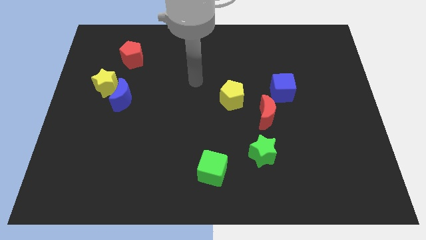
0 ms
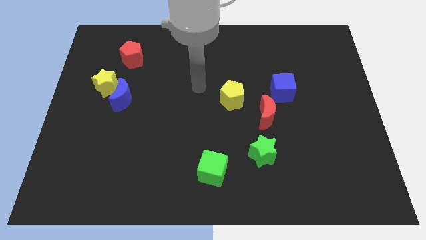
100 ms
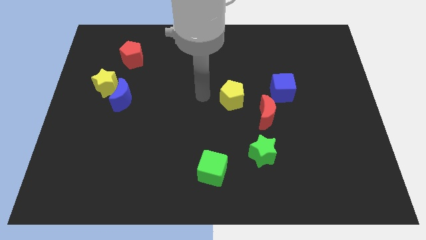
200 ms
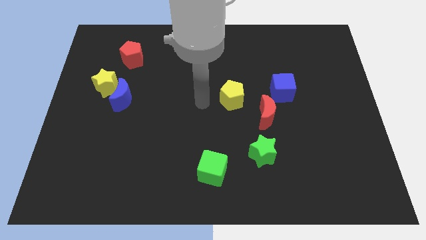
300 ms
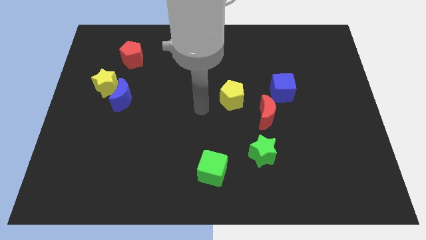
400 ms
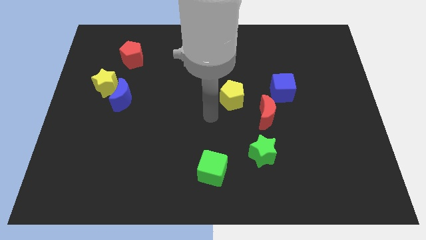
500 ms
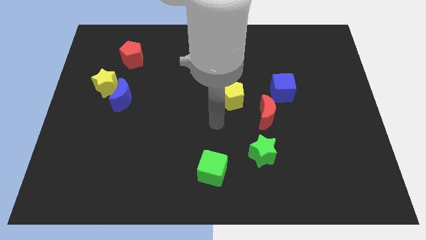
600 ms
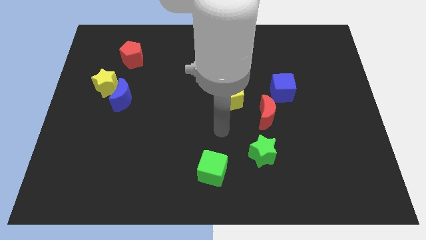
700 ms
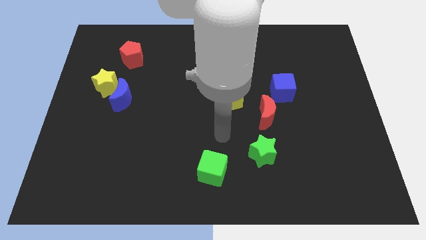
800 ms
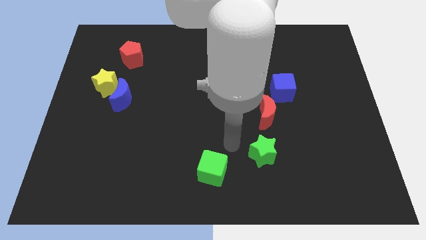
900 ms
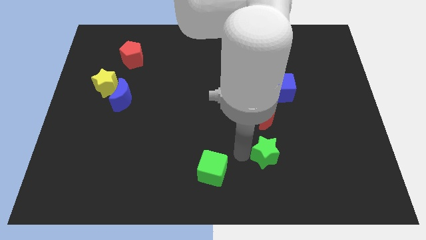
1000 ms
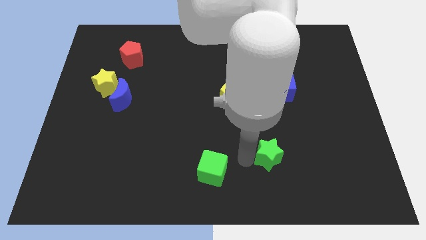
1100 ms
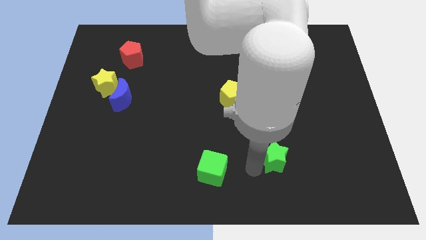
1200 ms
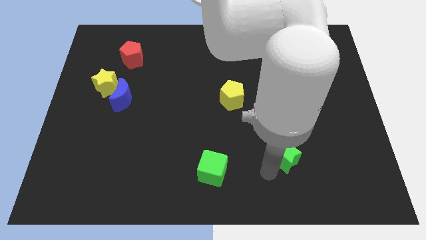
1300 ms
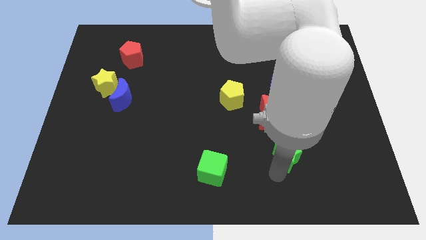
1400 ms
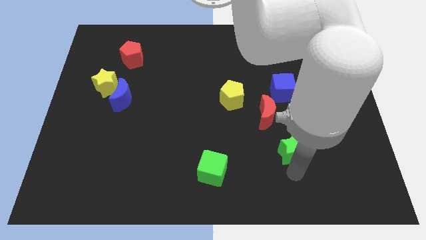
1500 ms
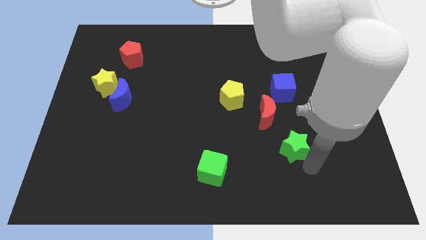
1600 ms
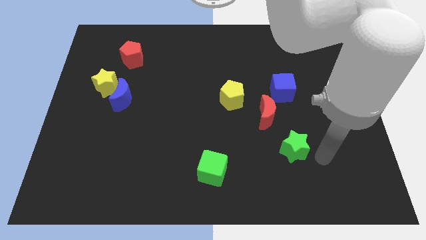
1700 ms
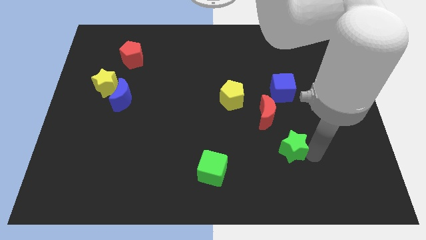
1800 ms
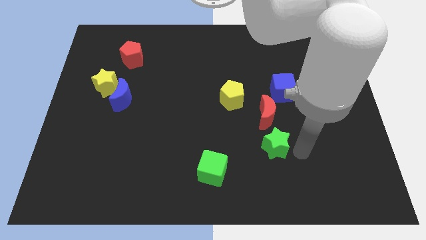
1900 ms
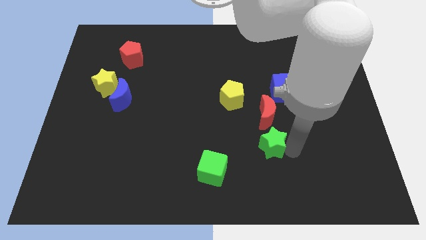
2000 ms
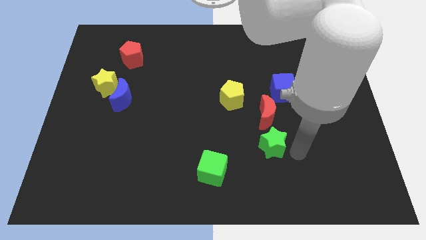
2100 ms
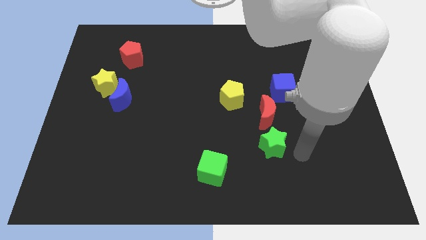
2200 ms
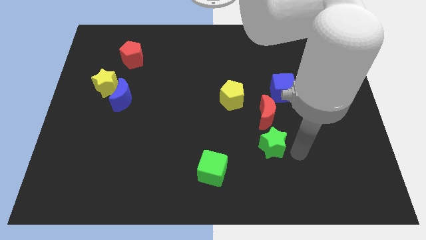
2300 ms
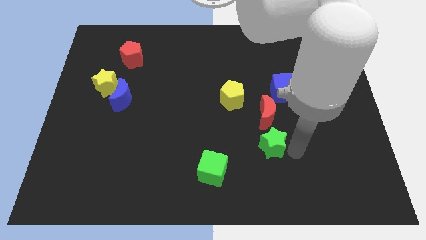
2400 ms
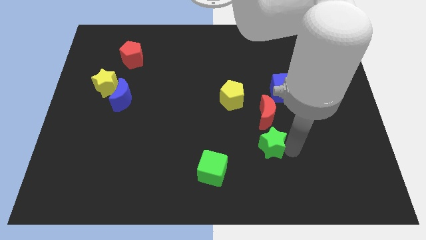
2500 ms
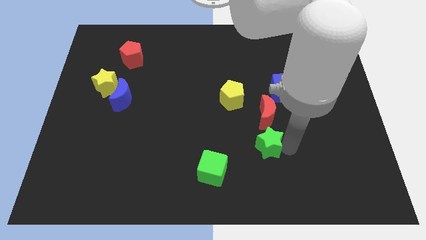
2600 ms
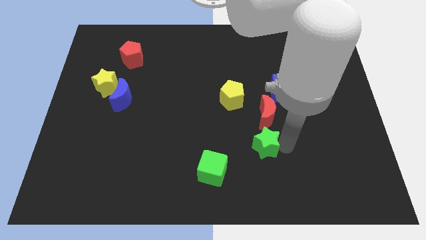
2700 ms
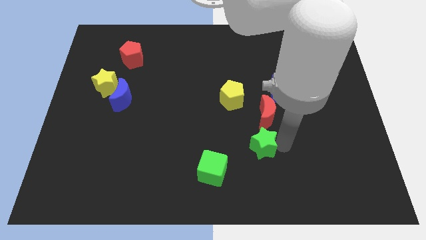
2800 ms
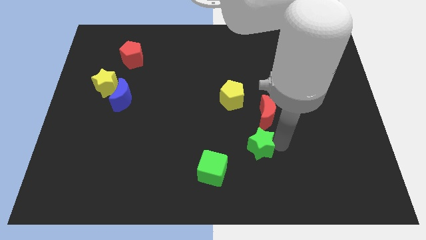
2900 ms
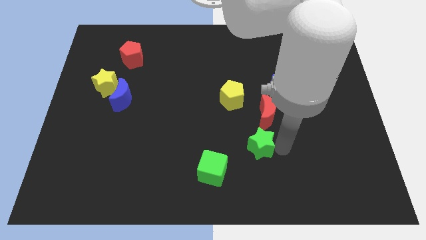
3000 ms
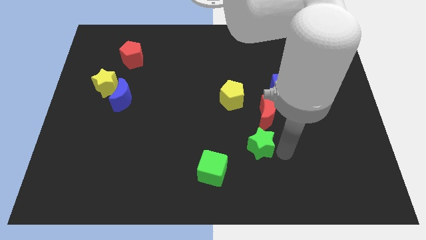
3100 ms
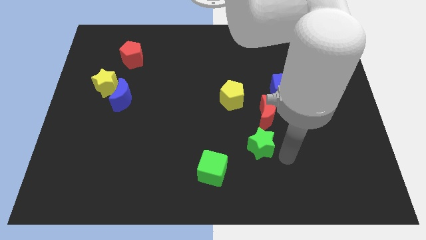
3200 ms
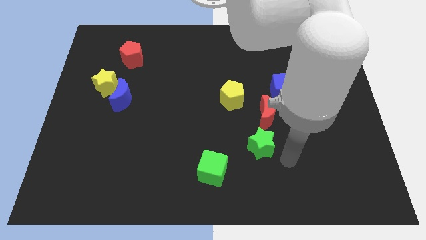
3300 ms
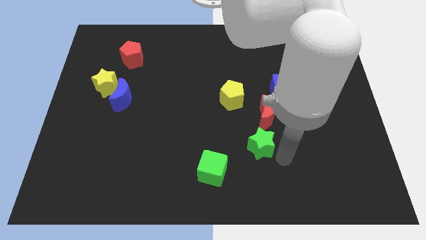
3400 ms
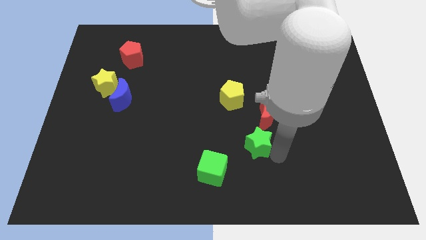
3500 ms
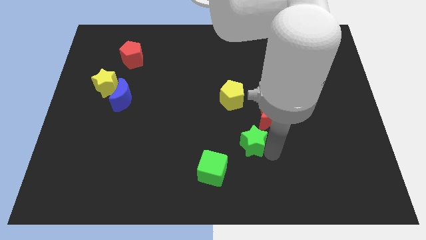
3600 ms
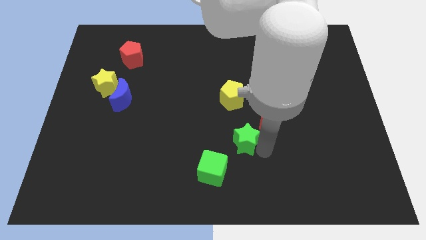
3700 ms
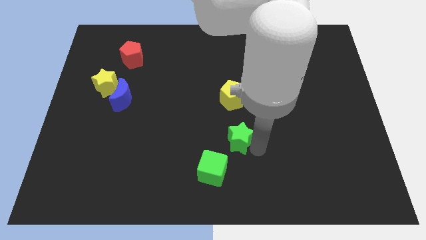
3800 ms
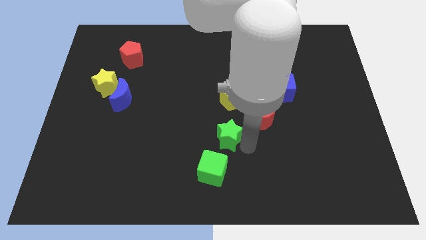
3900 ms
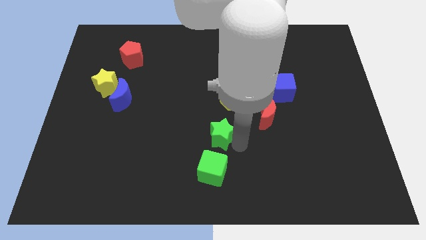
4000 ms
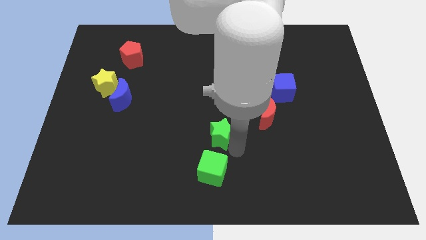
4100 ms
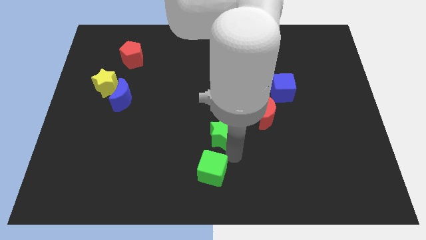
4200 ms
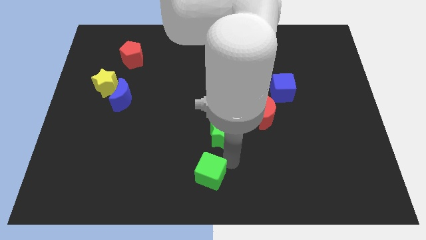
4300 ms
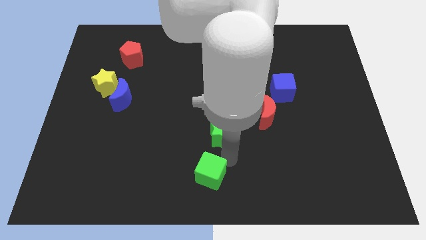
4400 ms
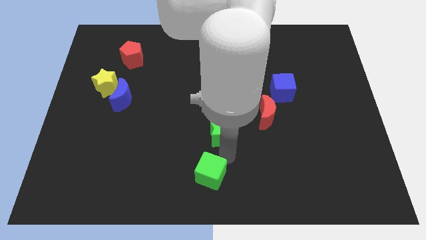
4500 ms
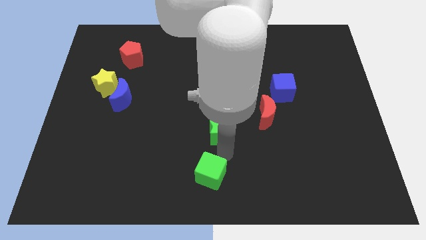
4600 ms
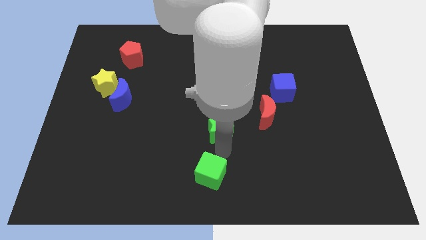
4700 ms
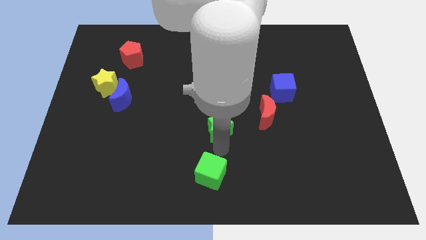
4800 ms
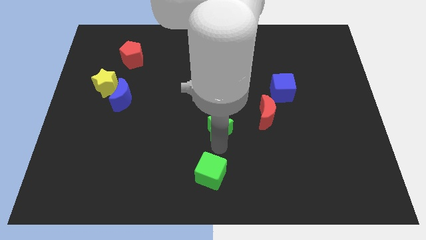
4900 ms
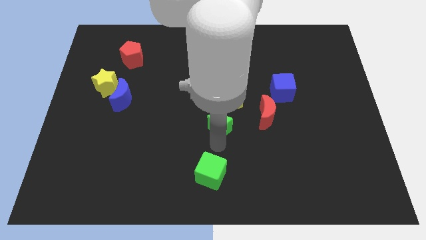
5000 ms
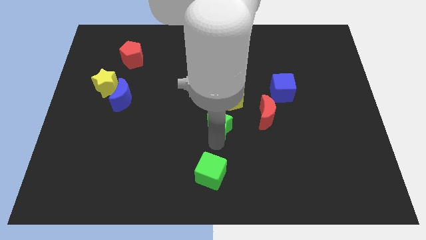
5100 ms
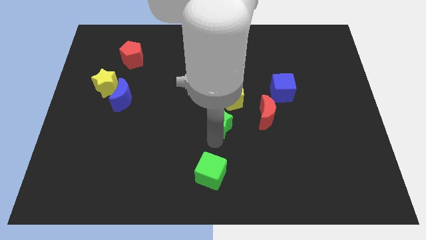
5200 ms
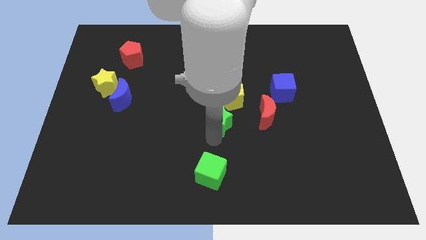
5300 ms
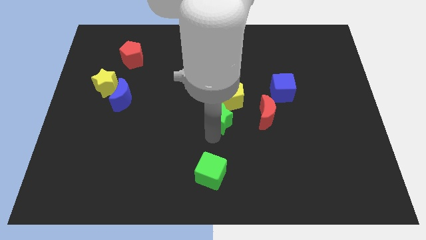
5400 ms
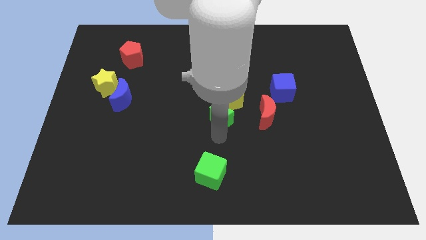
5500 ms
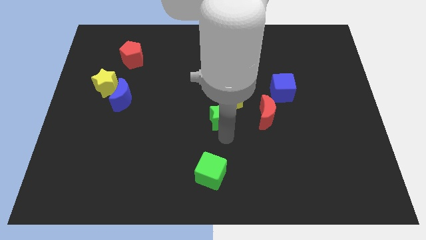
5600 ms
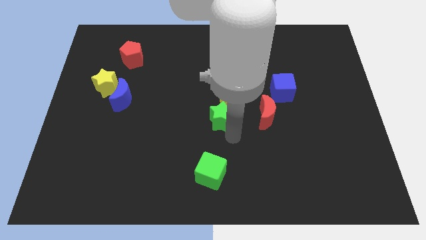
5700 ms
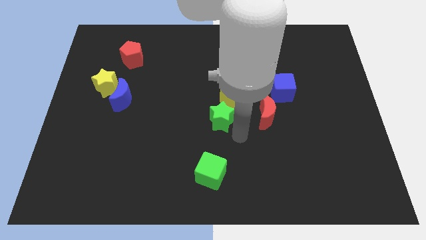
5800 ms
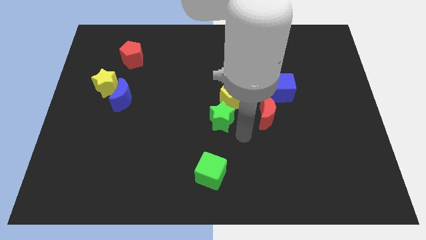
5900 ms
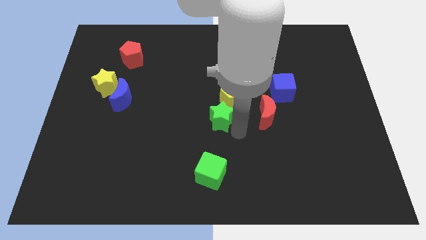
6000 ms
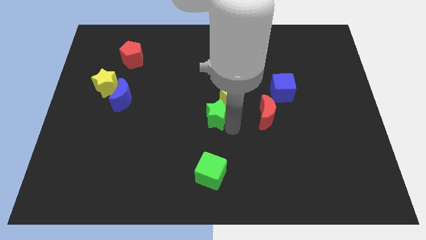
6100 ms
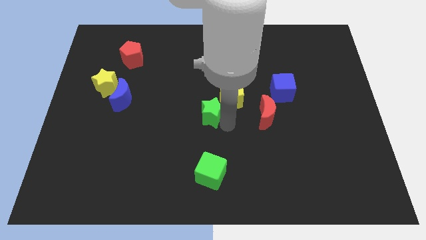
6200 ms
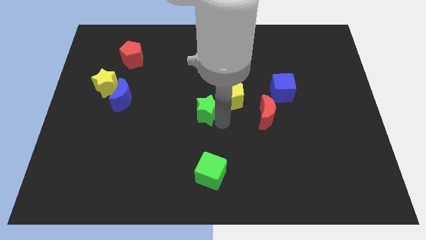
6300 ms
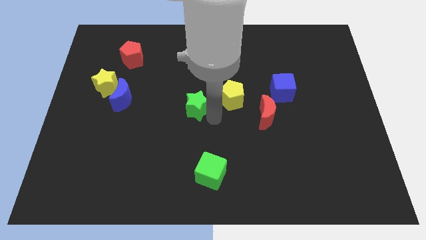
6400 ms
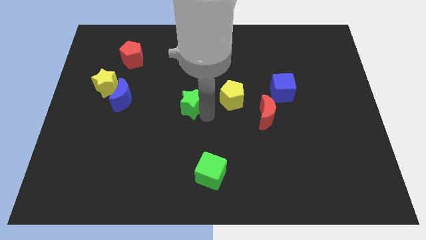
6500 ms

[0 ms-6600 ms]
slide the green star upwards and left diagonally

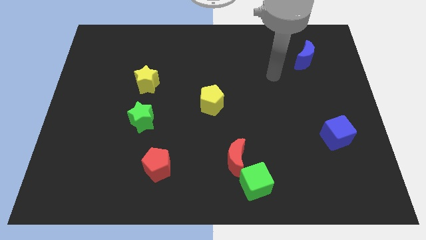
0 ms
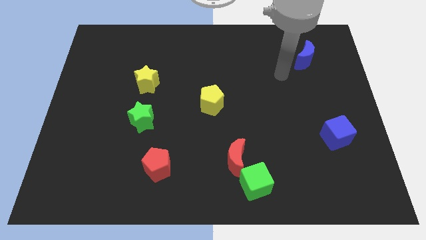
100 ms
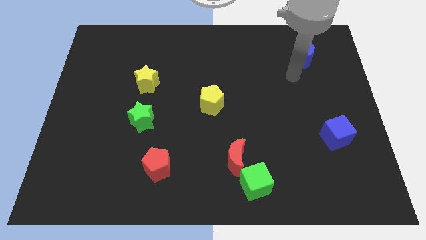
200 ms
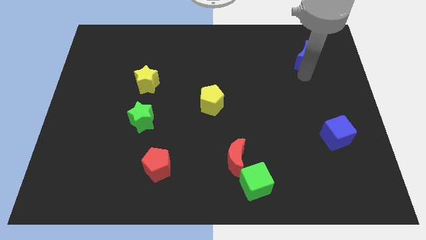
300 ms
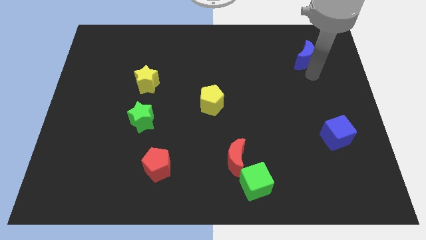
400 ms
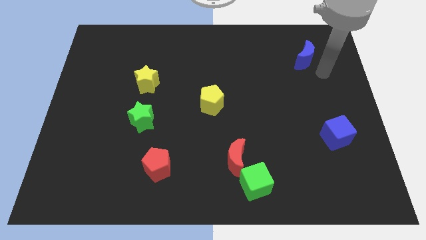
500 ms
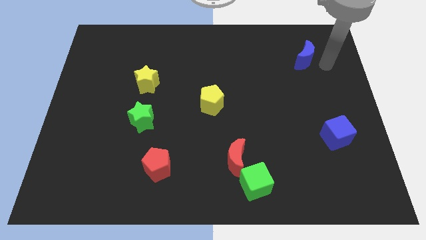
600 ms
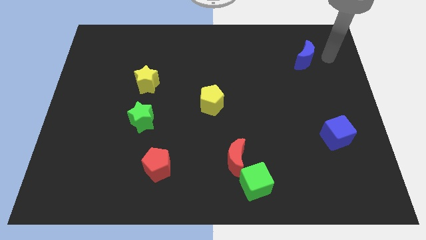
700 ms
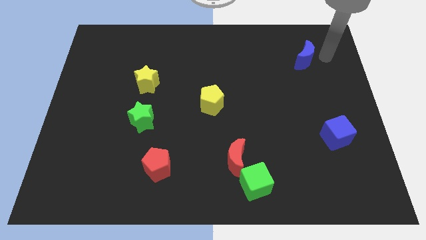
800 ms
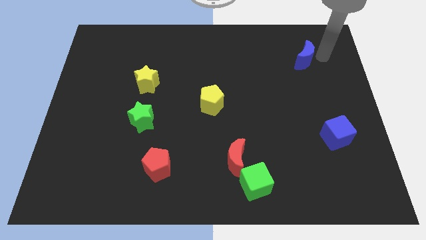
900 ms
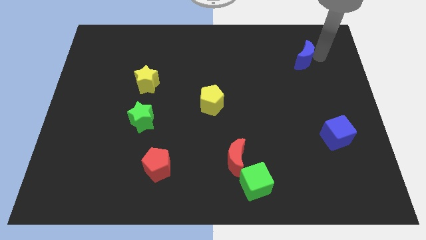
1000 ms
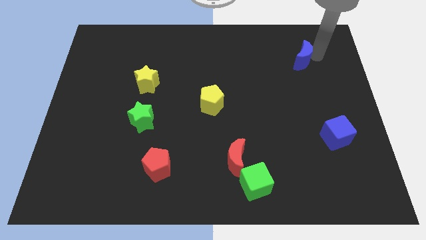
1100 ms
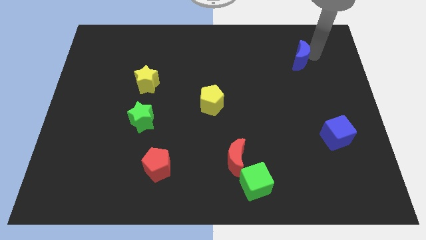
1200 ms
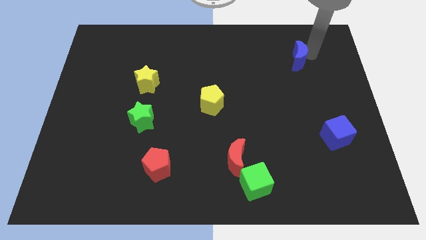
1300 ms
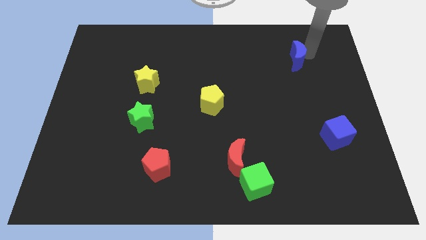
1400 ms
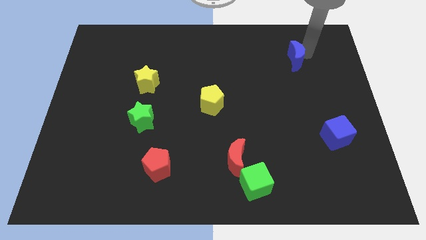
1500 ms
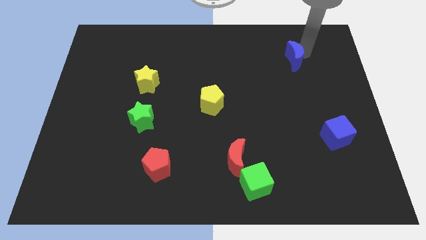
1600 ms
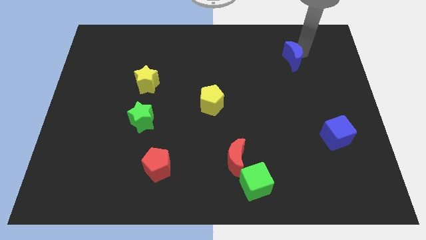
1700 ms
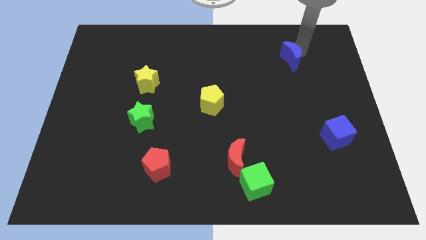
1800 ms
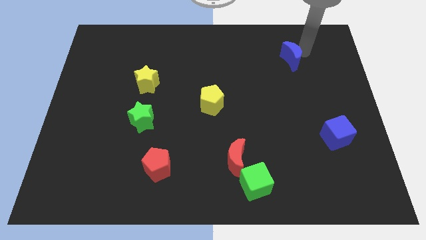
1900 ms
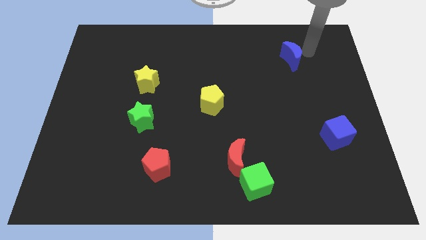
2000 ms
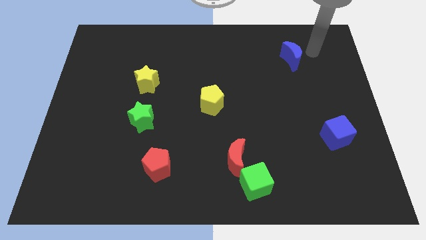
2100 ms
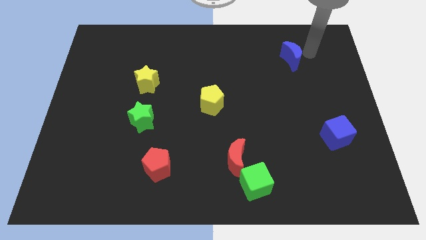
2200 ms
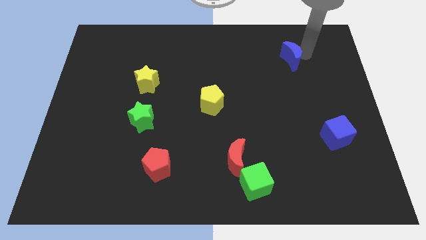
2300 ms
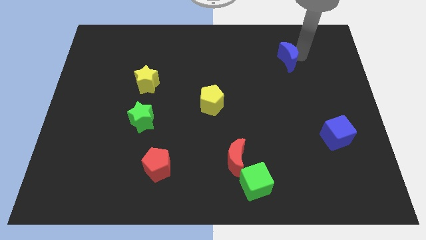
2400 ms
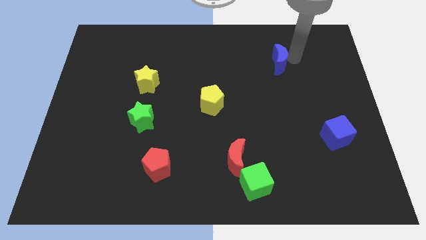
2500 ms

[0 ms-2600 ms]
move the blue moon a little left
